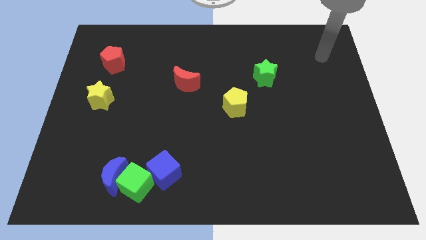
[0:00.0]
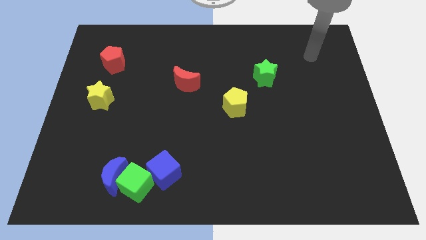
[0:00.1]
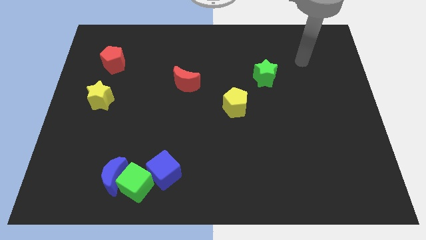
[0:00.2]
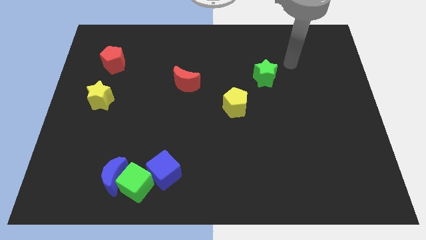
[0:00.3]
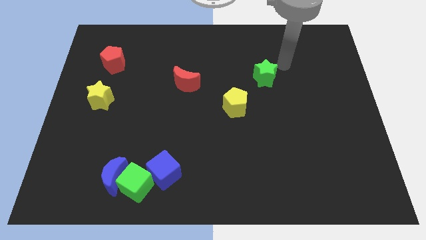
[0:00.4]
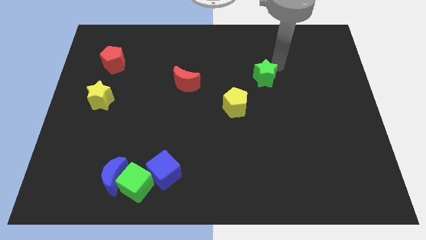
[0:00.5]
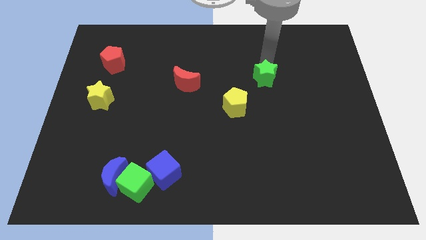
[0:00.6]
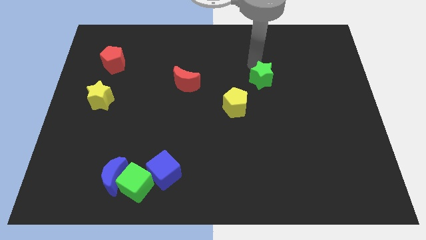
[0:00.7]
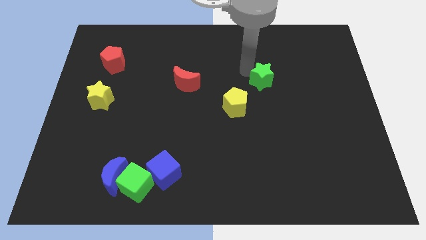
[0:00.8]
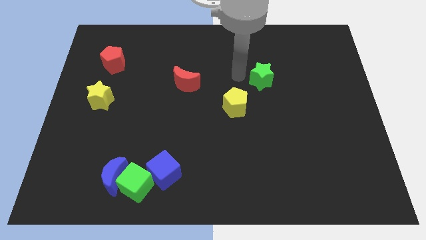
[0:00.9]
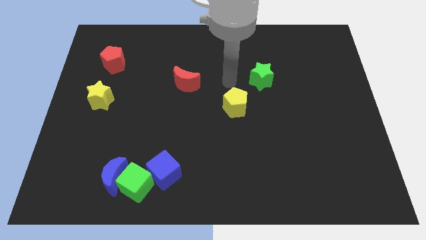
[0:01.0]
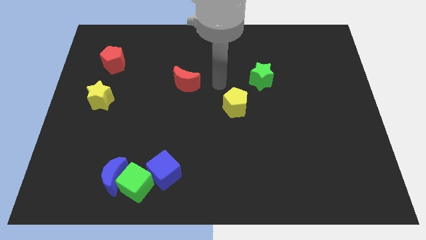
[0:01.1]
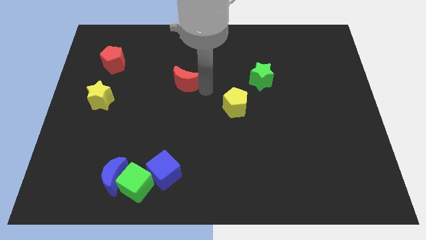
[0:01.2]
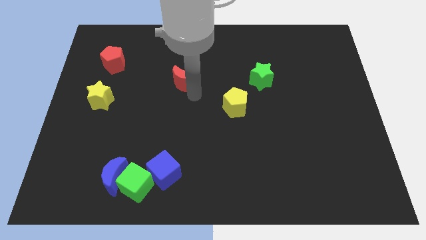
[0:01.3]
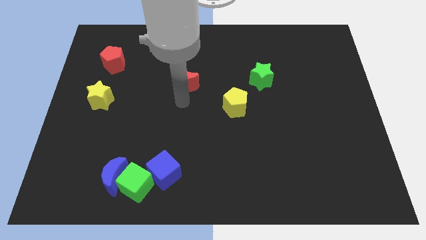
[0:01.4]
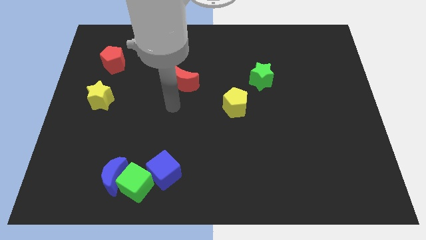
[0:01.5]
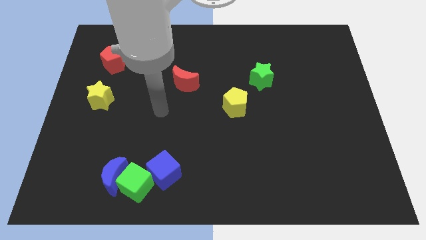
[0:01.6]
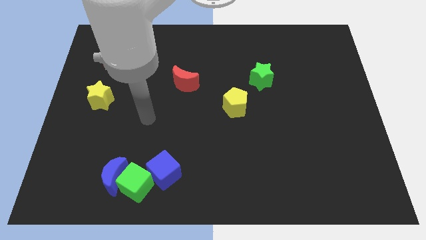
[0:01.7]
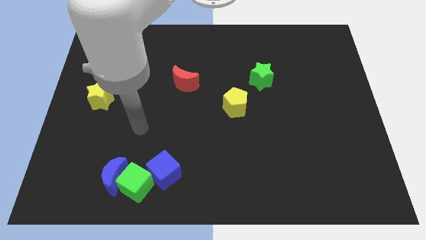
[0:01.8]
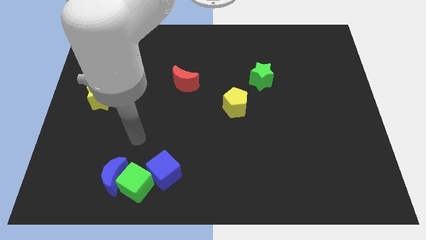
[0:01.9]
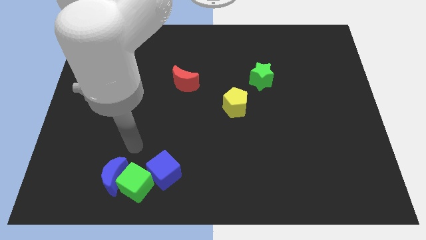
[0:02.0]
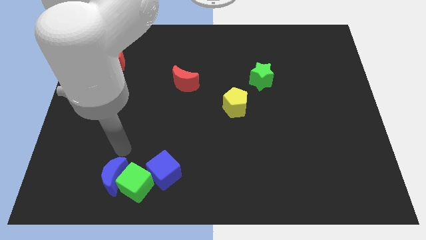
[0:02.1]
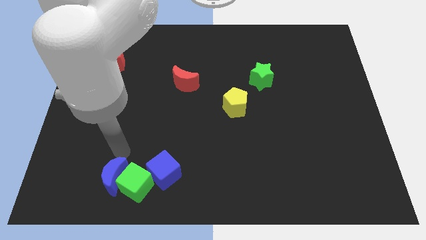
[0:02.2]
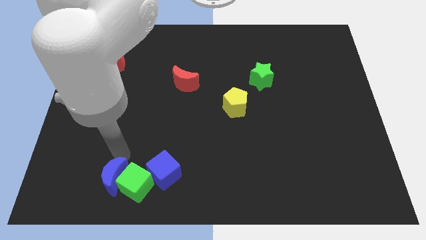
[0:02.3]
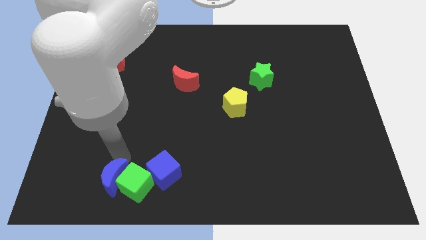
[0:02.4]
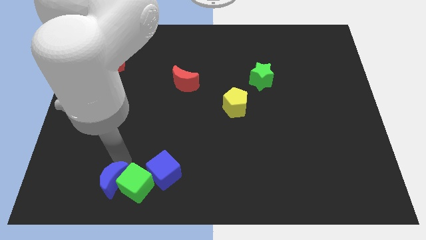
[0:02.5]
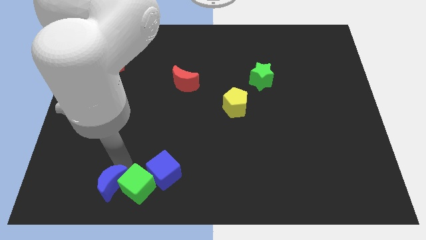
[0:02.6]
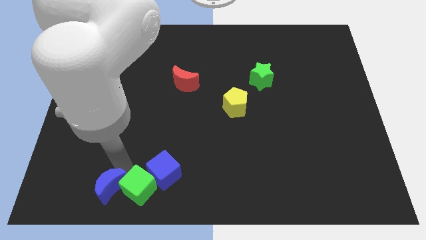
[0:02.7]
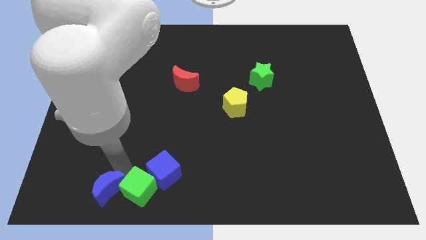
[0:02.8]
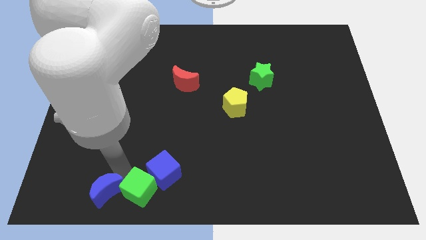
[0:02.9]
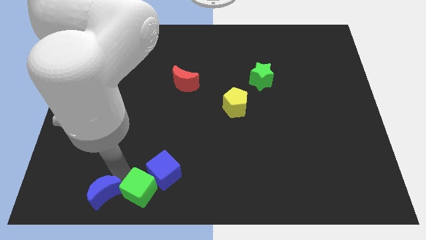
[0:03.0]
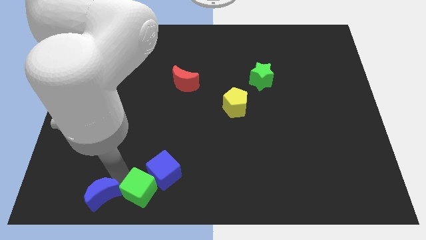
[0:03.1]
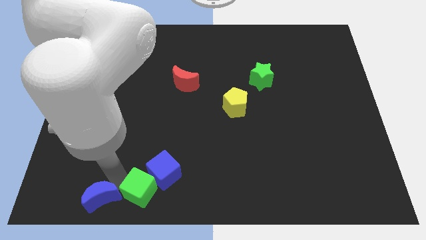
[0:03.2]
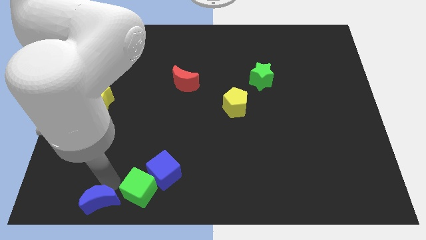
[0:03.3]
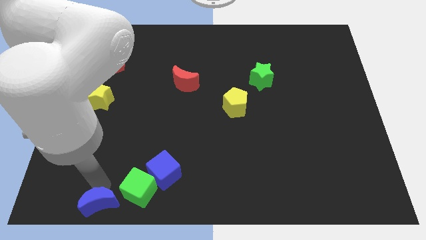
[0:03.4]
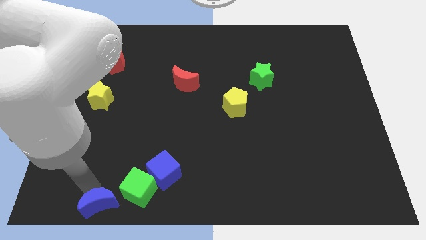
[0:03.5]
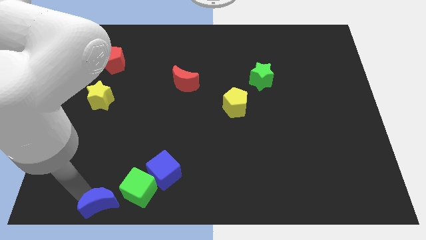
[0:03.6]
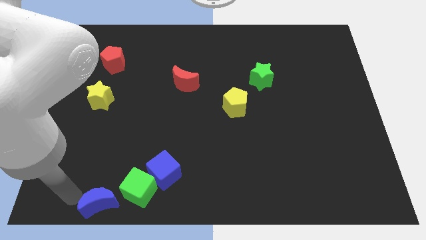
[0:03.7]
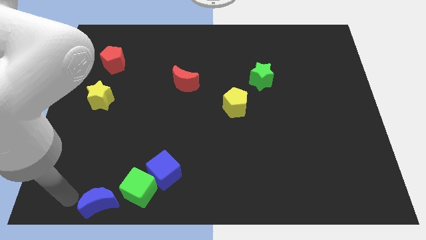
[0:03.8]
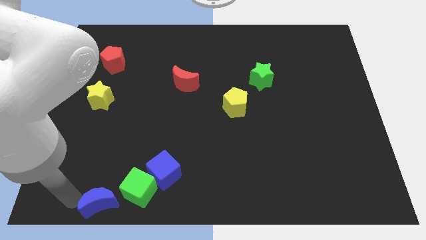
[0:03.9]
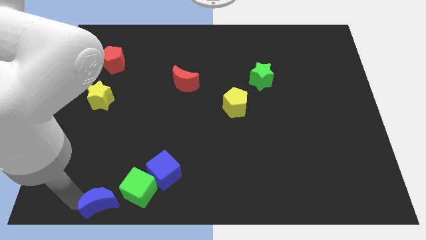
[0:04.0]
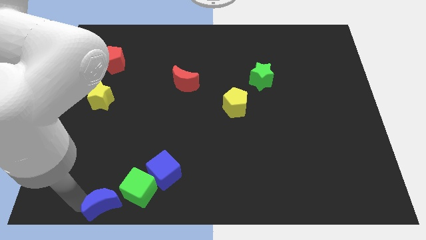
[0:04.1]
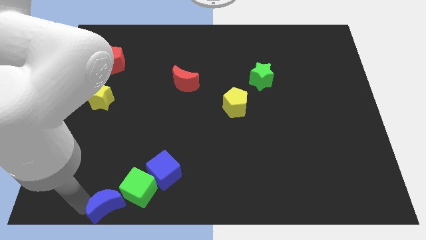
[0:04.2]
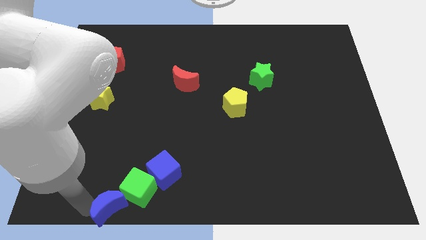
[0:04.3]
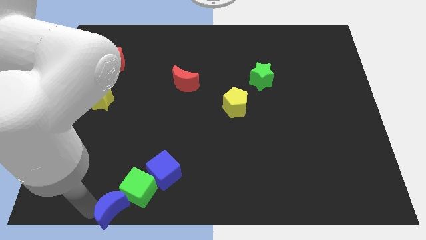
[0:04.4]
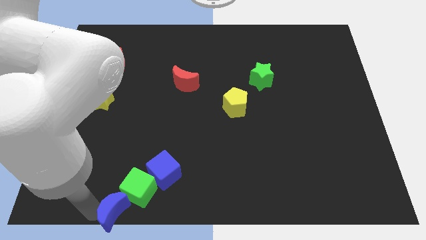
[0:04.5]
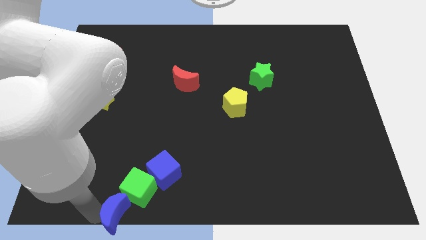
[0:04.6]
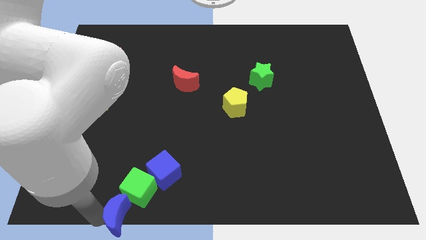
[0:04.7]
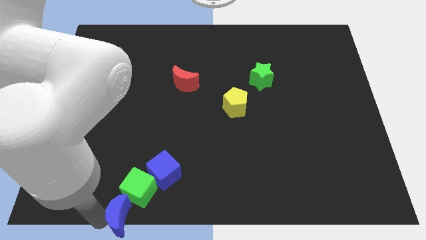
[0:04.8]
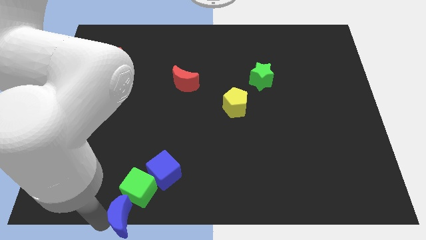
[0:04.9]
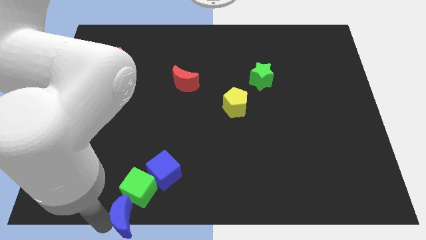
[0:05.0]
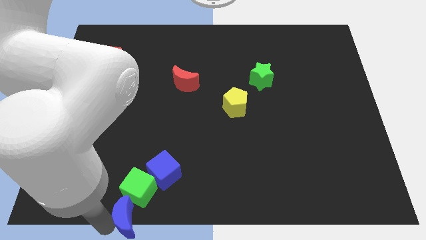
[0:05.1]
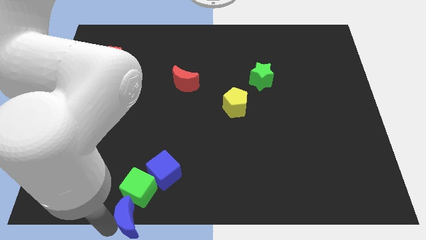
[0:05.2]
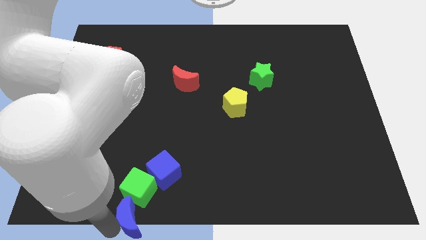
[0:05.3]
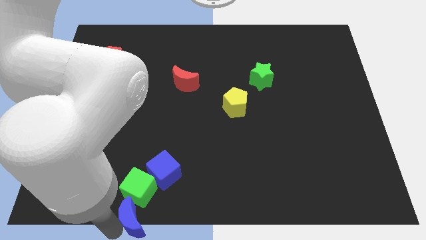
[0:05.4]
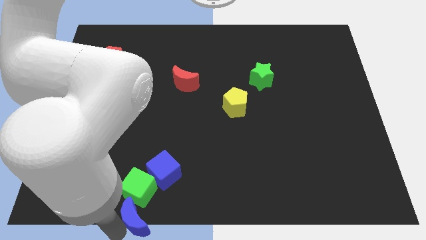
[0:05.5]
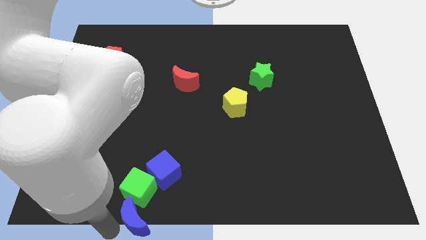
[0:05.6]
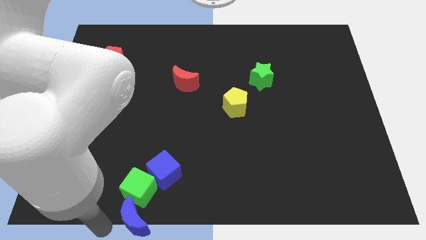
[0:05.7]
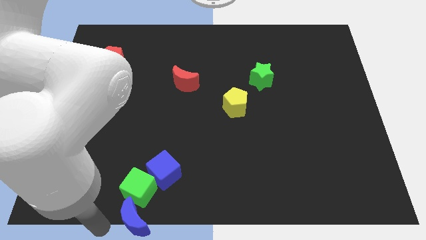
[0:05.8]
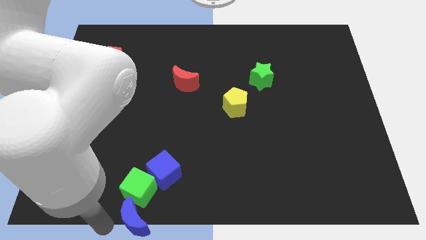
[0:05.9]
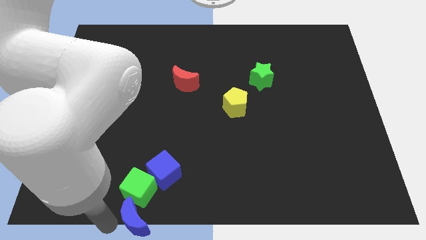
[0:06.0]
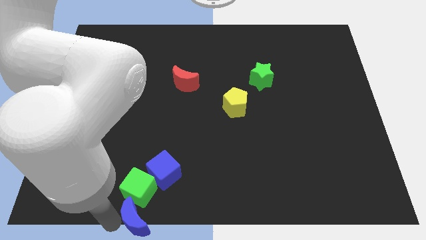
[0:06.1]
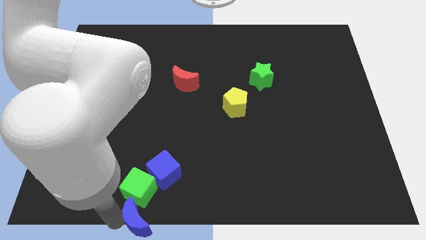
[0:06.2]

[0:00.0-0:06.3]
move the blue moon to the bottom
